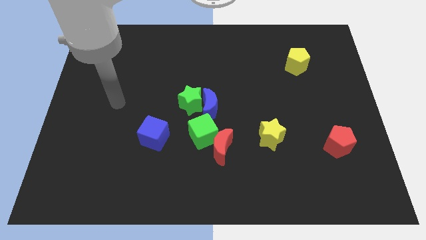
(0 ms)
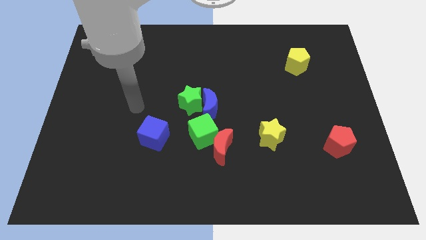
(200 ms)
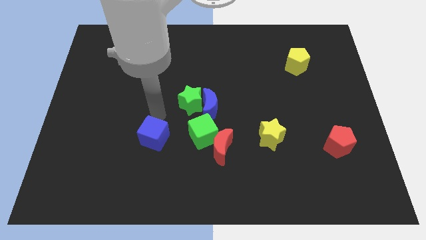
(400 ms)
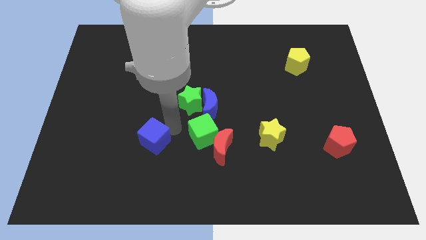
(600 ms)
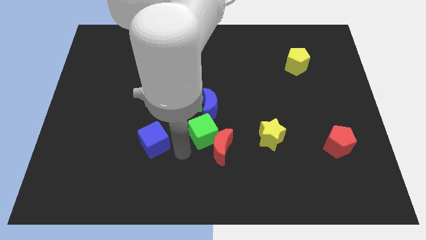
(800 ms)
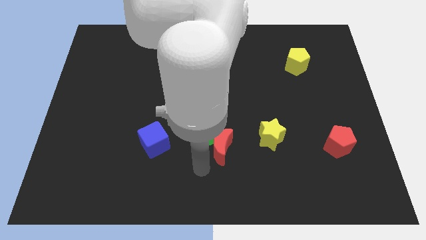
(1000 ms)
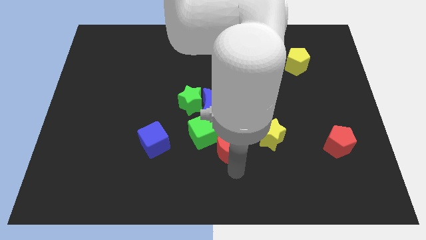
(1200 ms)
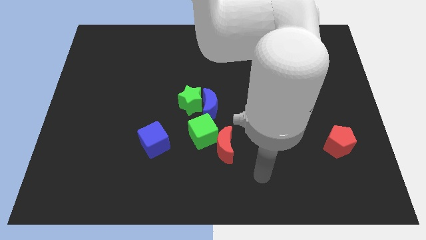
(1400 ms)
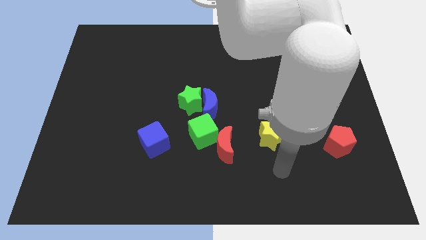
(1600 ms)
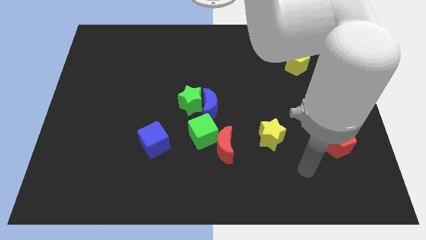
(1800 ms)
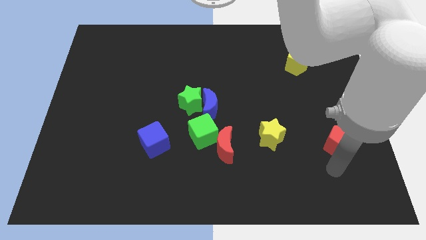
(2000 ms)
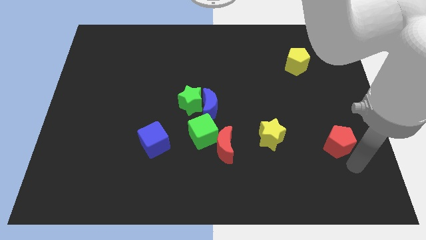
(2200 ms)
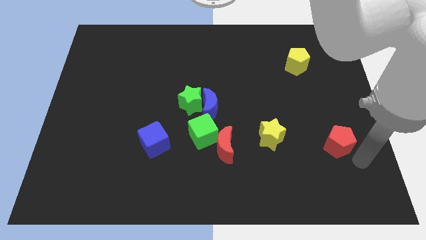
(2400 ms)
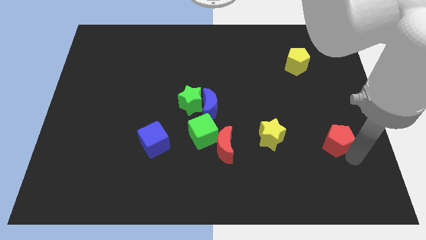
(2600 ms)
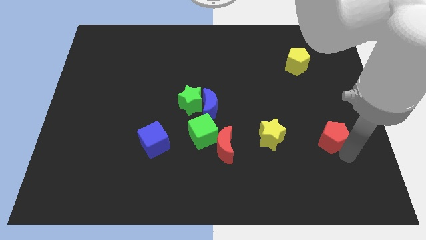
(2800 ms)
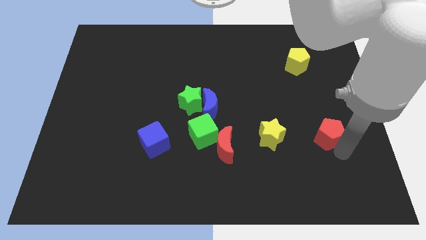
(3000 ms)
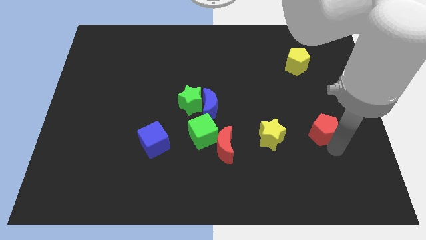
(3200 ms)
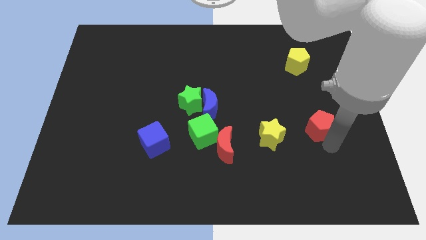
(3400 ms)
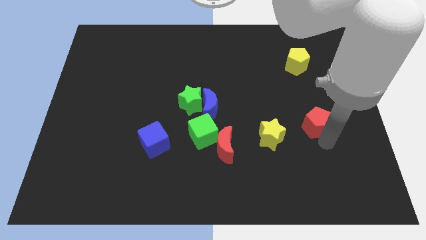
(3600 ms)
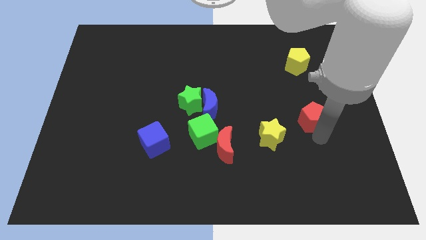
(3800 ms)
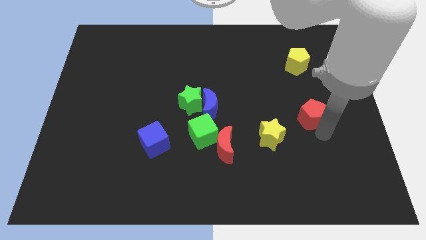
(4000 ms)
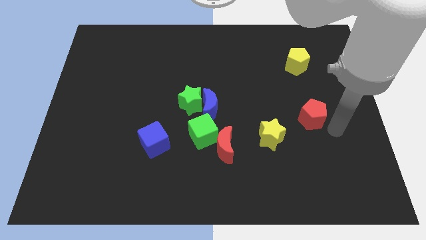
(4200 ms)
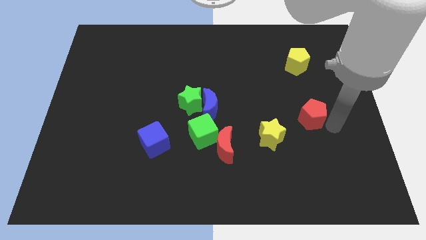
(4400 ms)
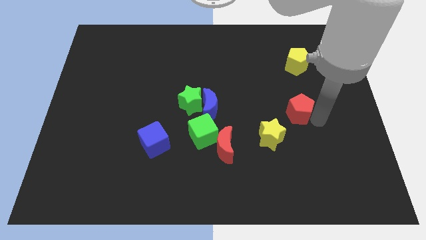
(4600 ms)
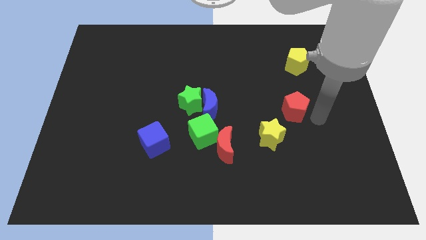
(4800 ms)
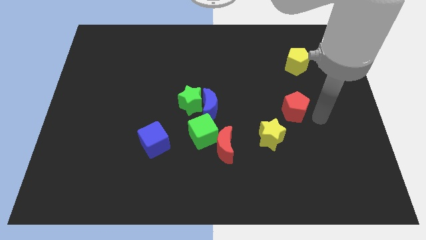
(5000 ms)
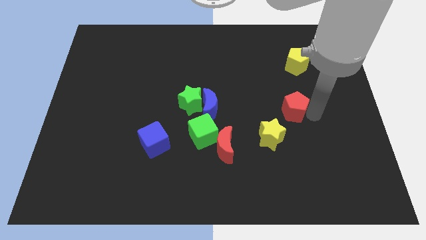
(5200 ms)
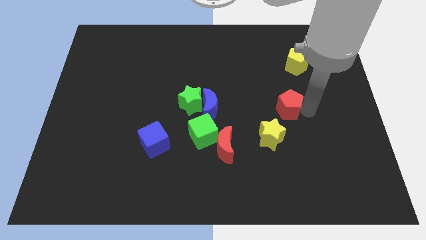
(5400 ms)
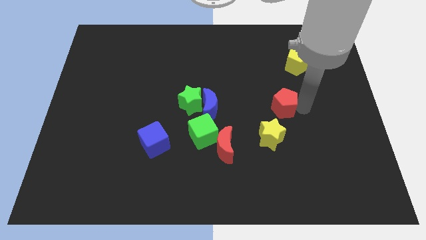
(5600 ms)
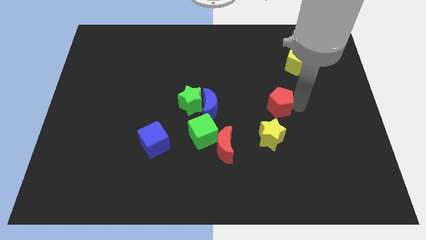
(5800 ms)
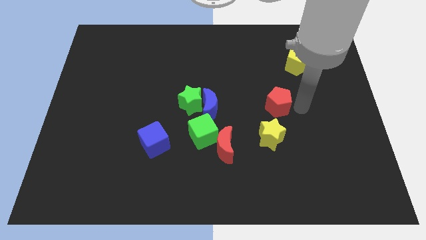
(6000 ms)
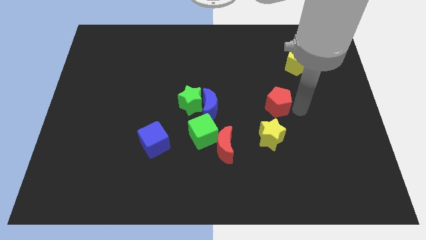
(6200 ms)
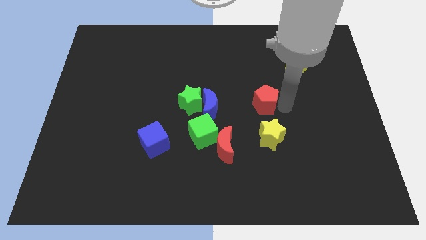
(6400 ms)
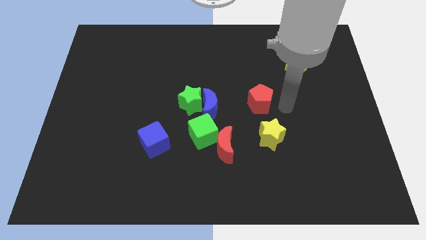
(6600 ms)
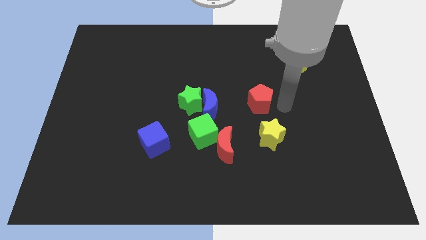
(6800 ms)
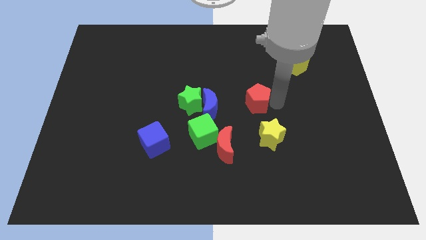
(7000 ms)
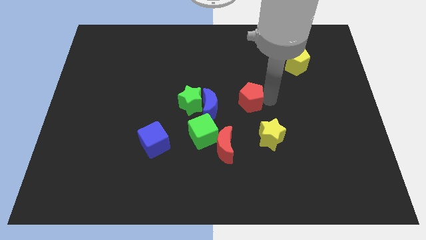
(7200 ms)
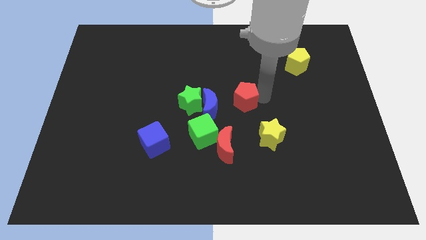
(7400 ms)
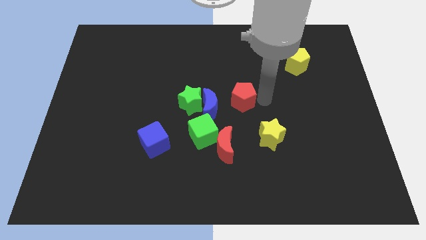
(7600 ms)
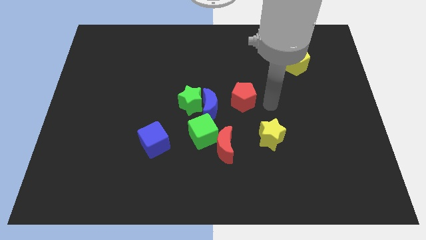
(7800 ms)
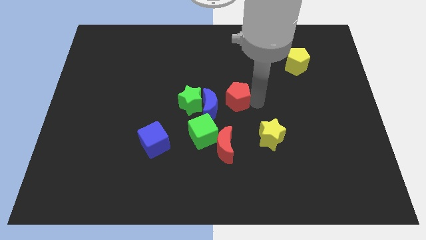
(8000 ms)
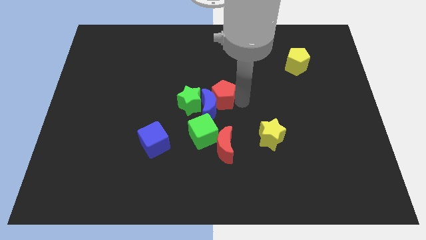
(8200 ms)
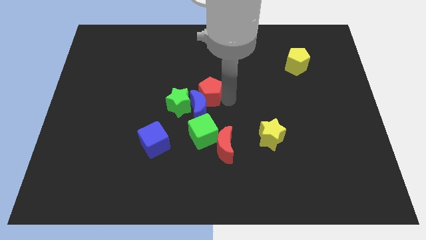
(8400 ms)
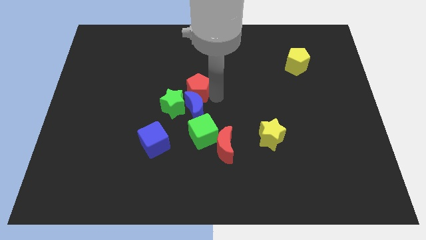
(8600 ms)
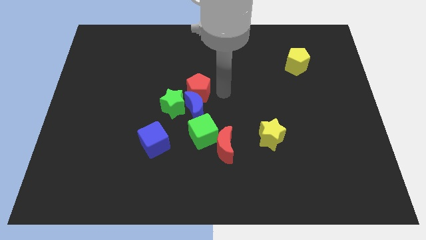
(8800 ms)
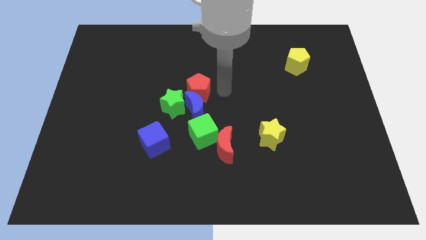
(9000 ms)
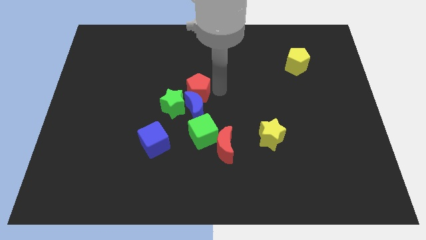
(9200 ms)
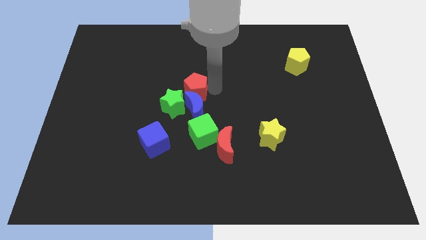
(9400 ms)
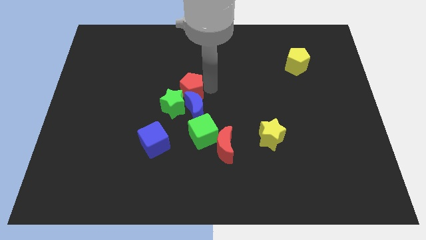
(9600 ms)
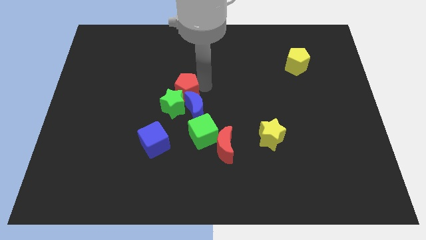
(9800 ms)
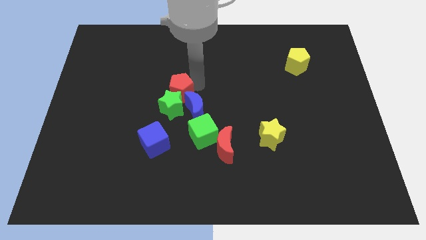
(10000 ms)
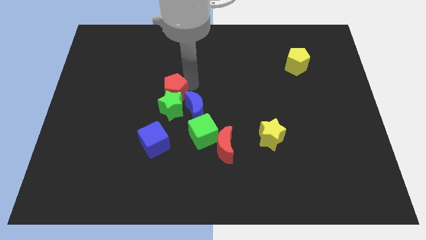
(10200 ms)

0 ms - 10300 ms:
slide the red pentagon to the top of the blue cube

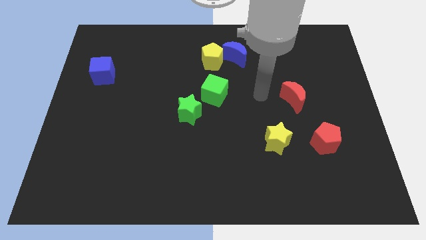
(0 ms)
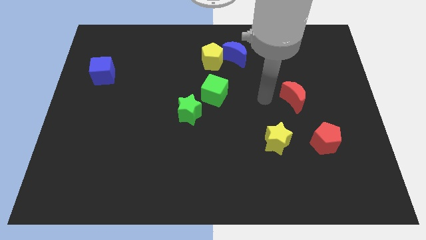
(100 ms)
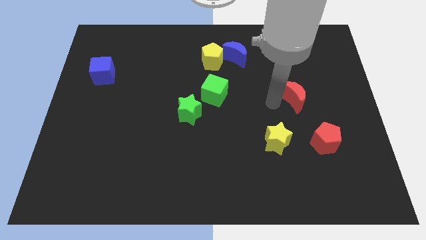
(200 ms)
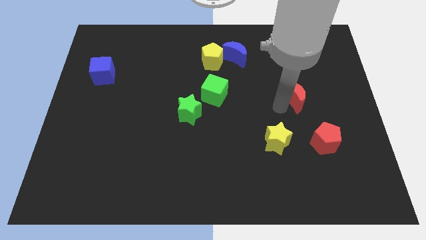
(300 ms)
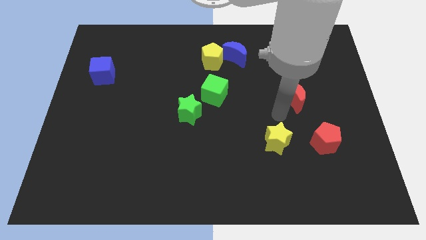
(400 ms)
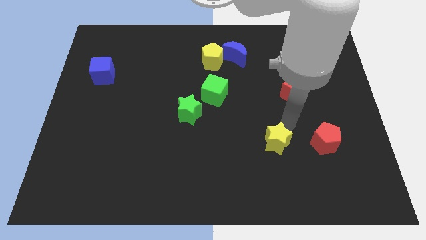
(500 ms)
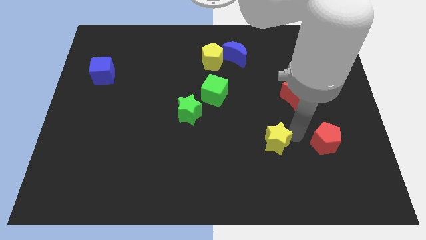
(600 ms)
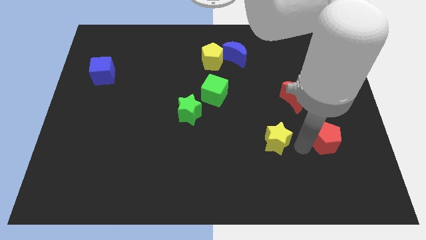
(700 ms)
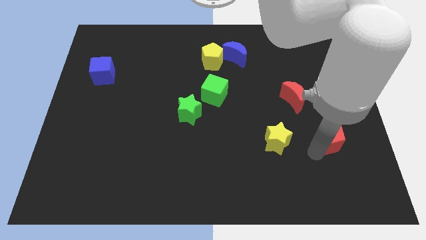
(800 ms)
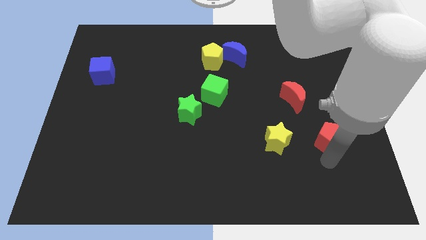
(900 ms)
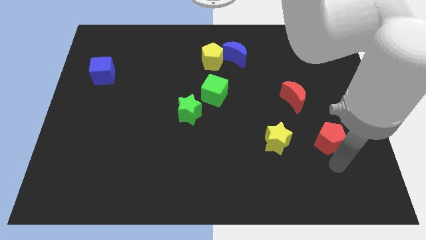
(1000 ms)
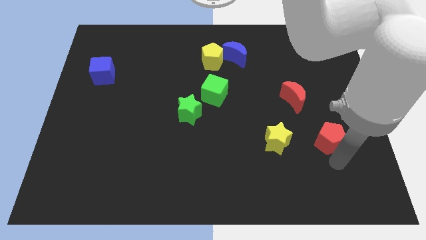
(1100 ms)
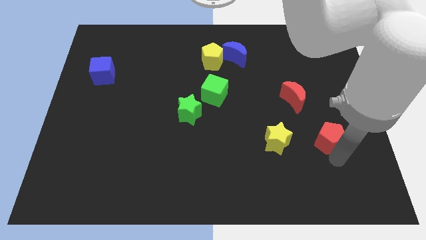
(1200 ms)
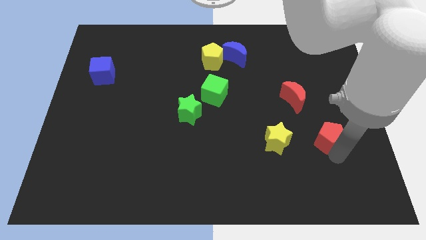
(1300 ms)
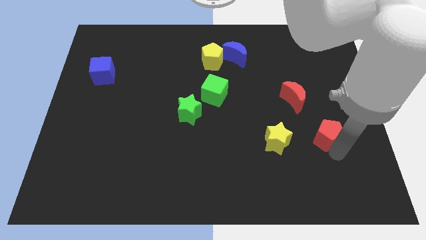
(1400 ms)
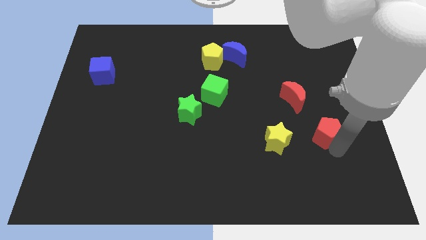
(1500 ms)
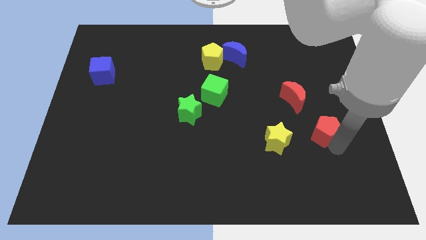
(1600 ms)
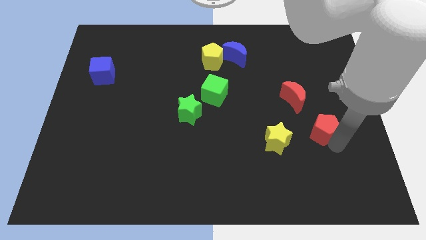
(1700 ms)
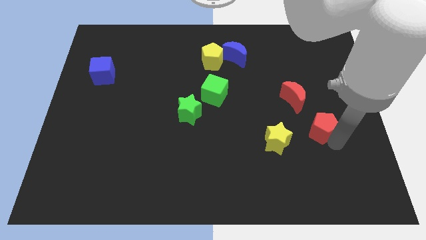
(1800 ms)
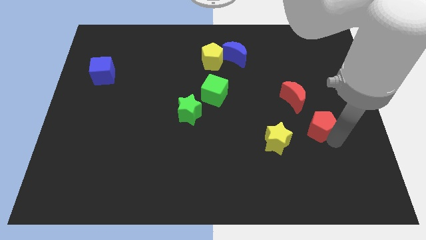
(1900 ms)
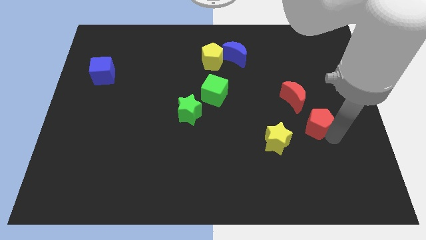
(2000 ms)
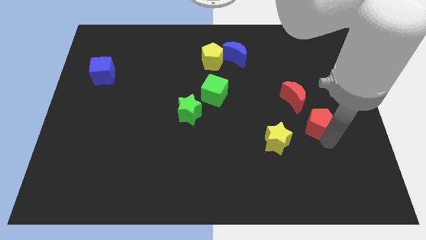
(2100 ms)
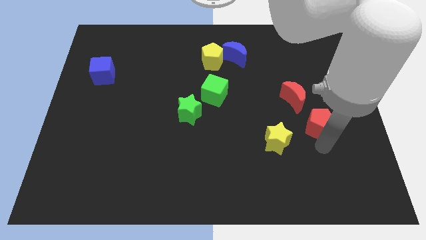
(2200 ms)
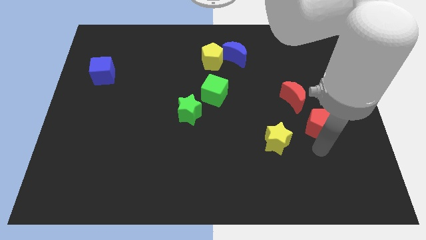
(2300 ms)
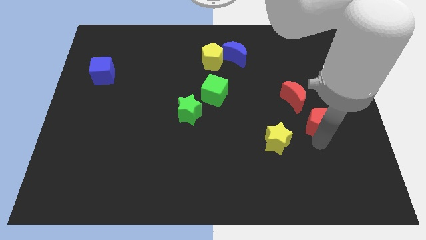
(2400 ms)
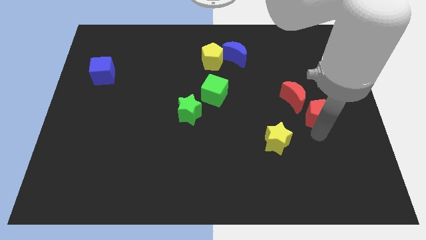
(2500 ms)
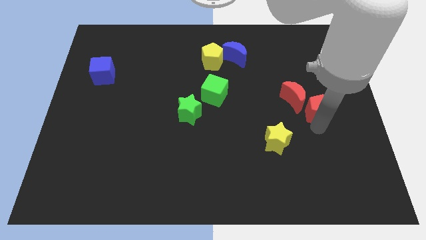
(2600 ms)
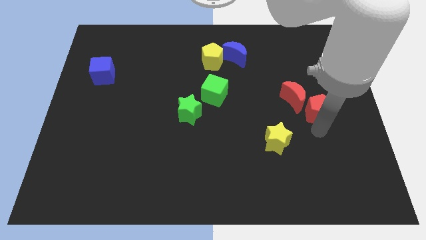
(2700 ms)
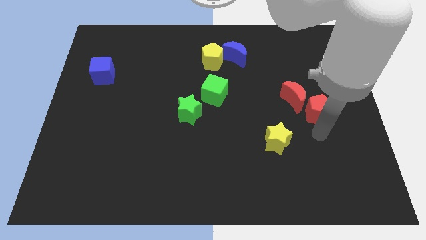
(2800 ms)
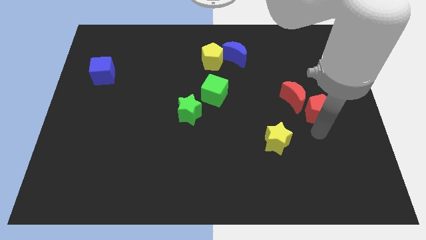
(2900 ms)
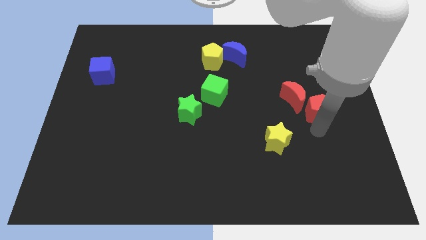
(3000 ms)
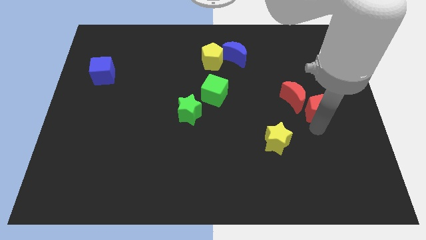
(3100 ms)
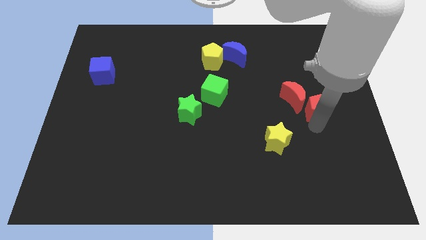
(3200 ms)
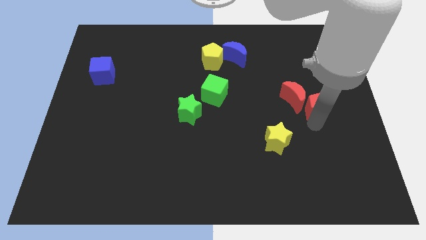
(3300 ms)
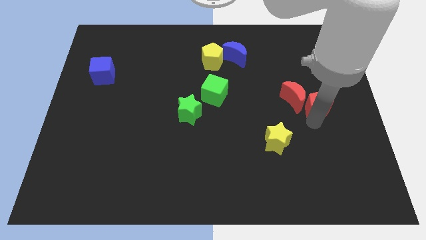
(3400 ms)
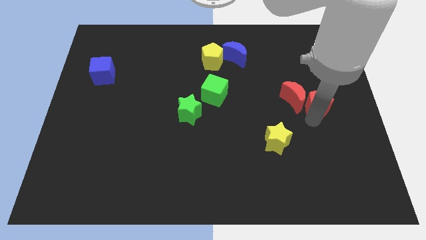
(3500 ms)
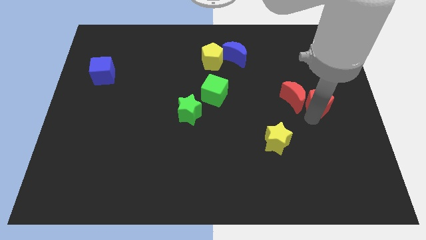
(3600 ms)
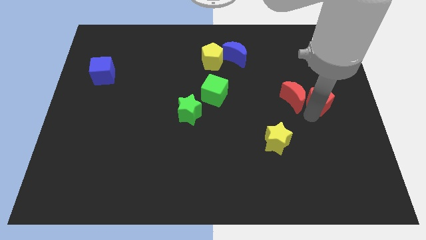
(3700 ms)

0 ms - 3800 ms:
put the red pentagon to the top right side of the red moon
